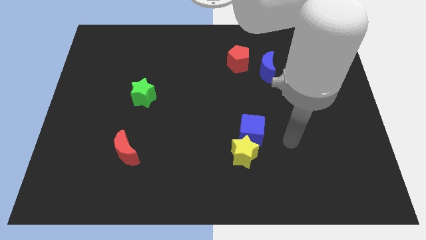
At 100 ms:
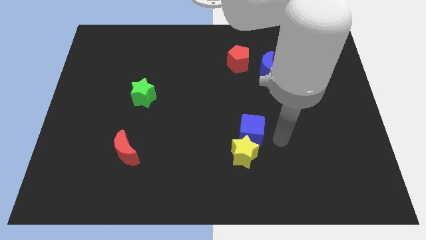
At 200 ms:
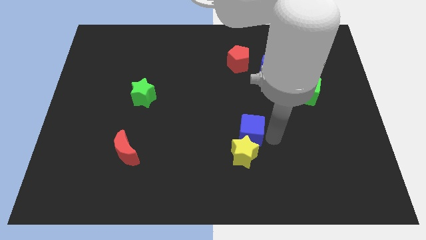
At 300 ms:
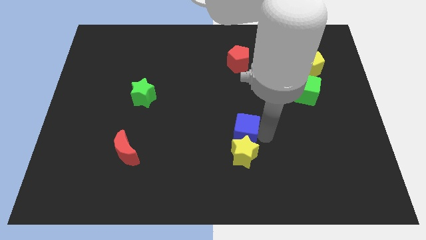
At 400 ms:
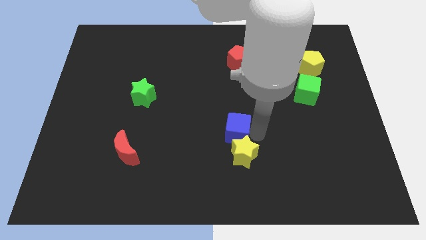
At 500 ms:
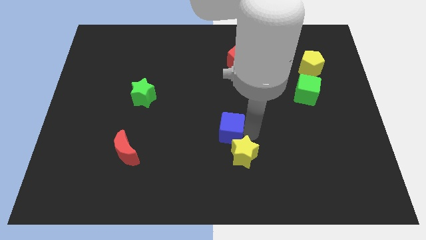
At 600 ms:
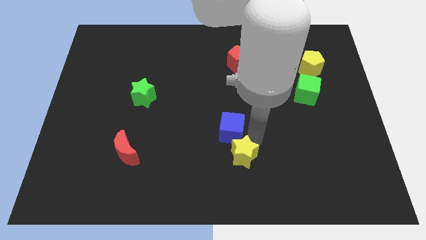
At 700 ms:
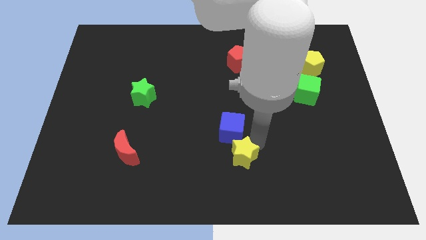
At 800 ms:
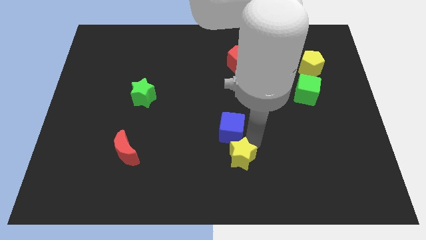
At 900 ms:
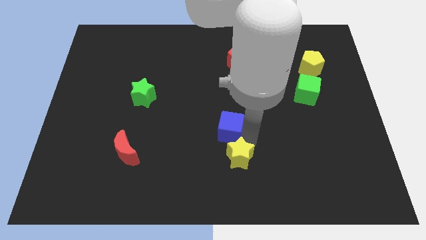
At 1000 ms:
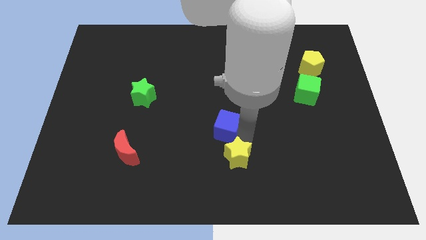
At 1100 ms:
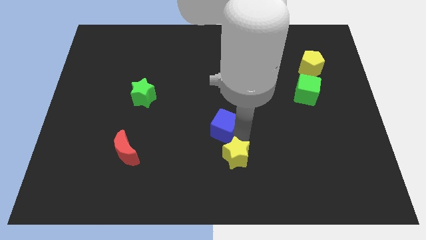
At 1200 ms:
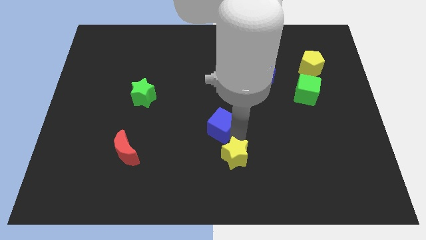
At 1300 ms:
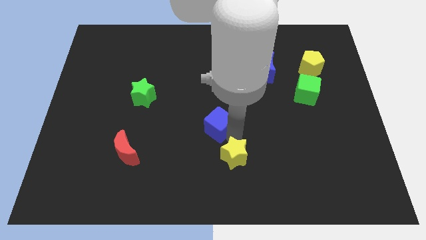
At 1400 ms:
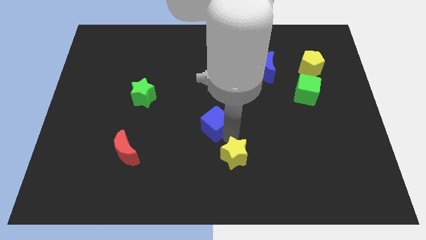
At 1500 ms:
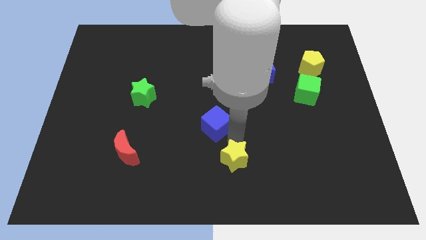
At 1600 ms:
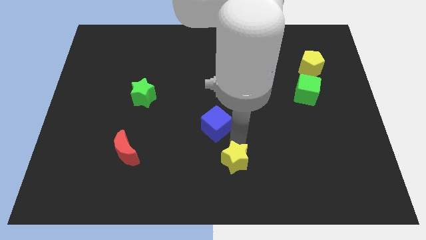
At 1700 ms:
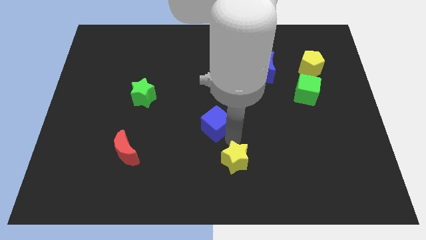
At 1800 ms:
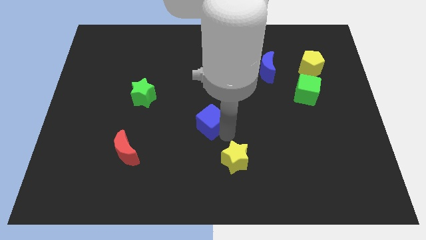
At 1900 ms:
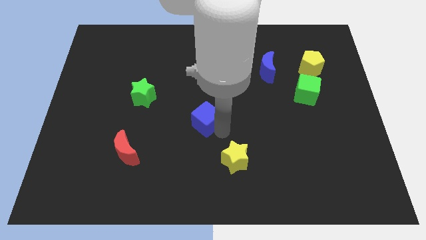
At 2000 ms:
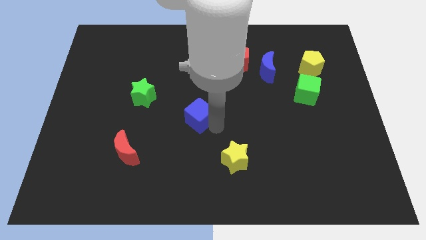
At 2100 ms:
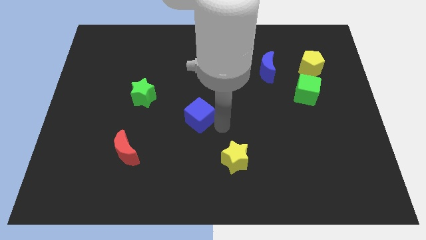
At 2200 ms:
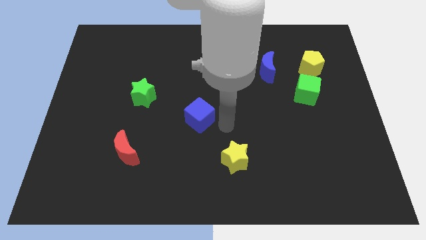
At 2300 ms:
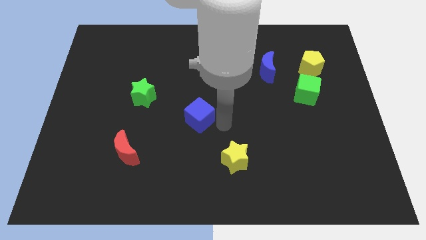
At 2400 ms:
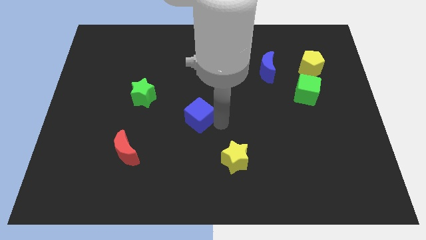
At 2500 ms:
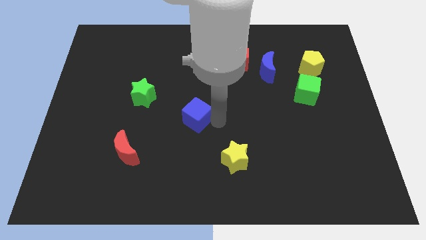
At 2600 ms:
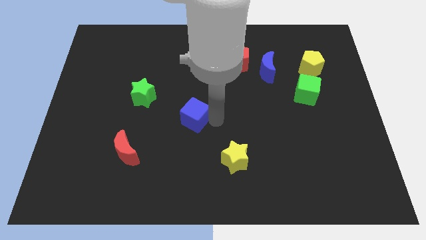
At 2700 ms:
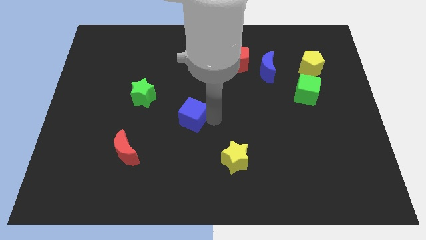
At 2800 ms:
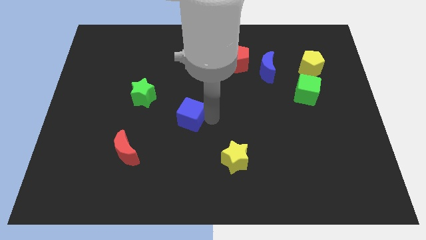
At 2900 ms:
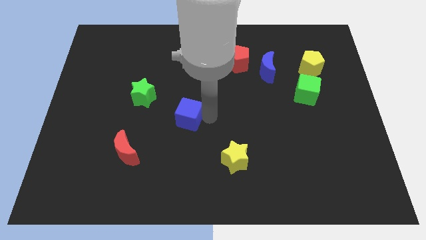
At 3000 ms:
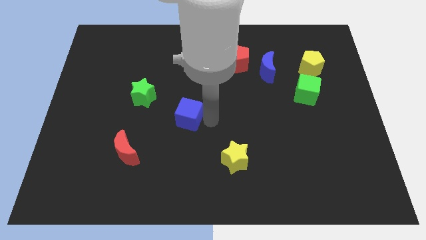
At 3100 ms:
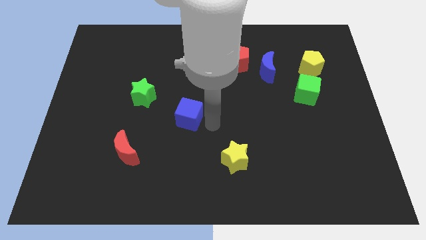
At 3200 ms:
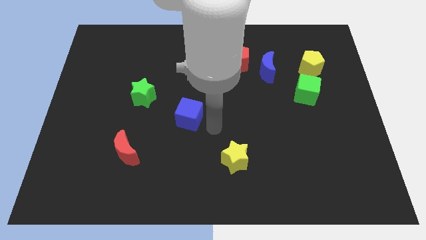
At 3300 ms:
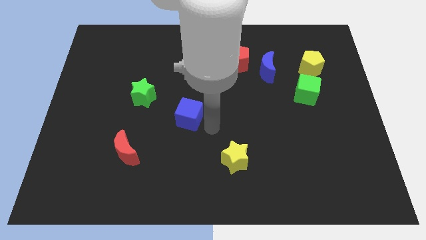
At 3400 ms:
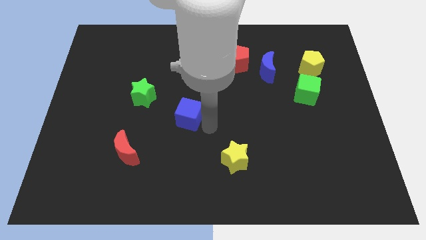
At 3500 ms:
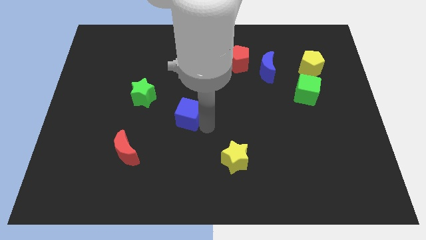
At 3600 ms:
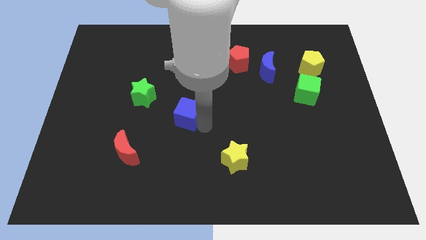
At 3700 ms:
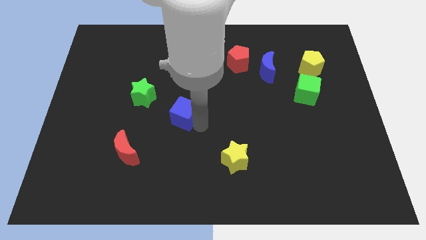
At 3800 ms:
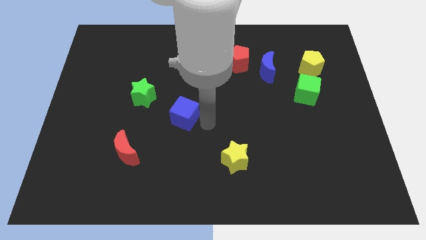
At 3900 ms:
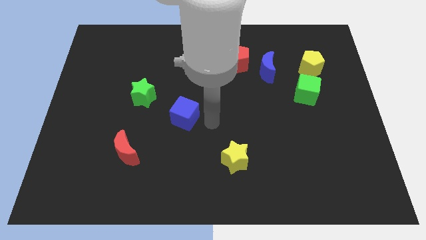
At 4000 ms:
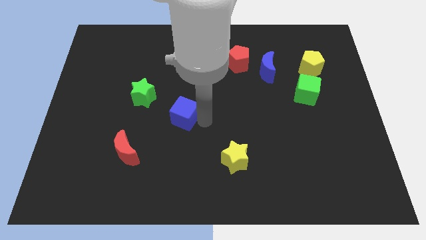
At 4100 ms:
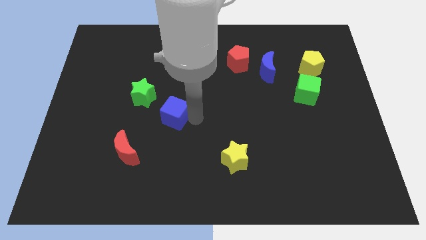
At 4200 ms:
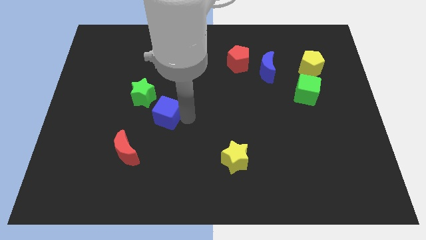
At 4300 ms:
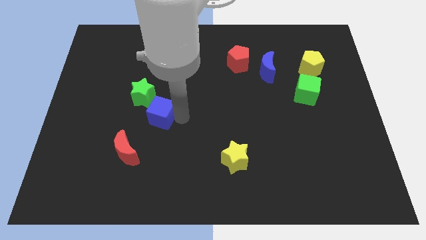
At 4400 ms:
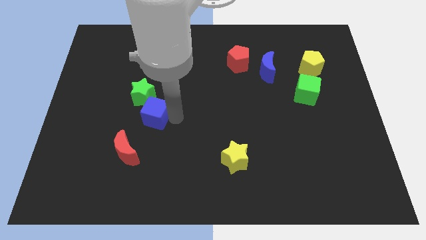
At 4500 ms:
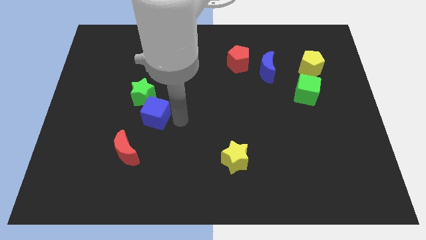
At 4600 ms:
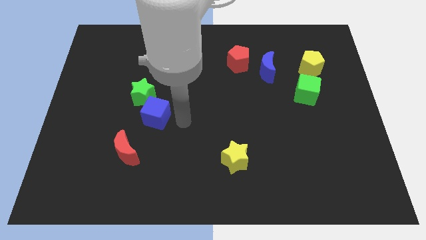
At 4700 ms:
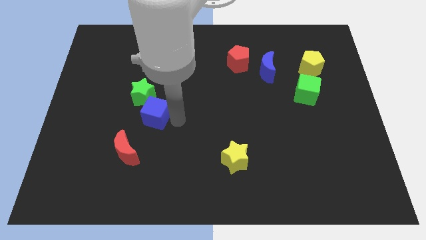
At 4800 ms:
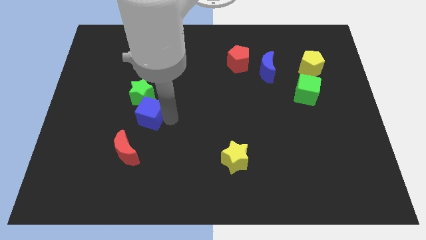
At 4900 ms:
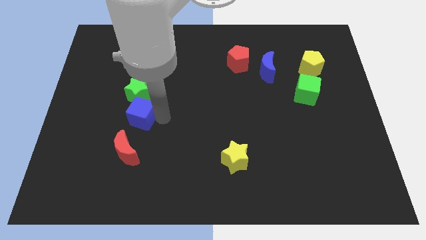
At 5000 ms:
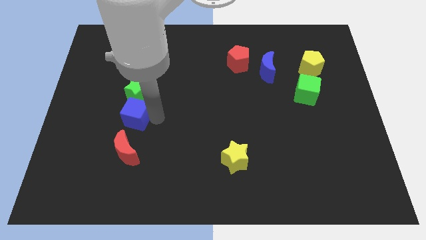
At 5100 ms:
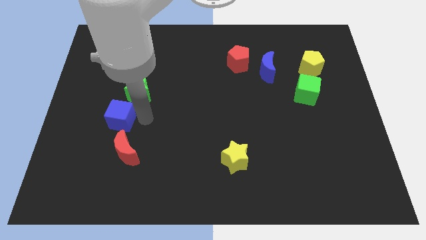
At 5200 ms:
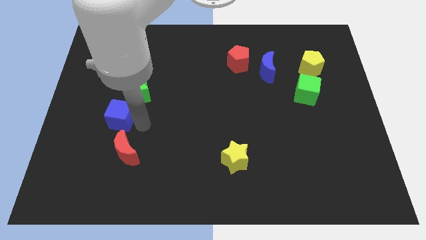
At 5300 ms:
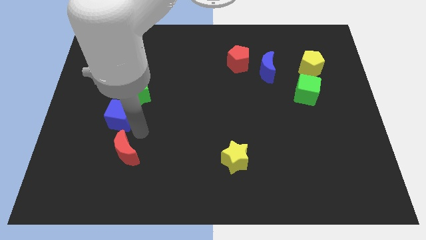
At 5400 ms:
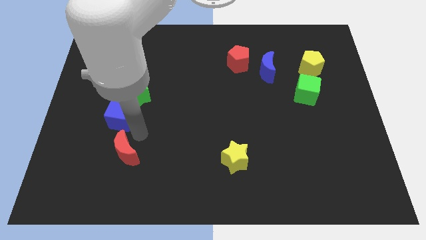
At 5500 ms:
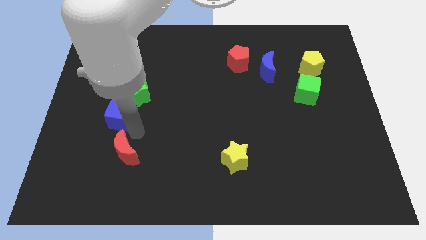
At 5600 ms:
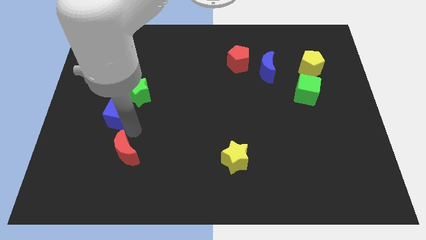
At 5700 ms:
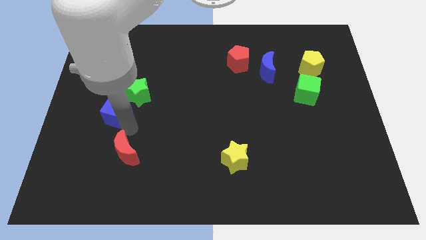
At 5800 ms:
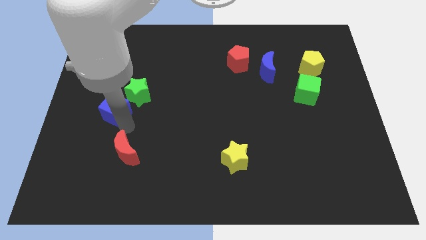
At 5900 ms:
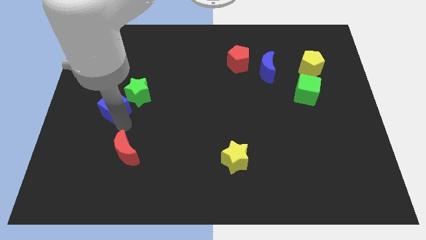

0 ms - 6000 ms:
slide the blue cube to the left side of the green star

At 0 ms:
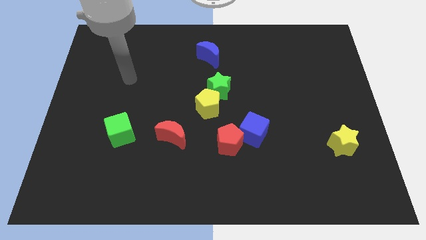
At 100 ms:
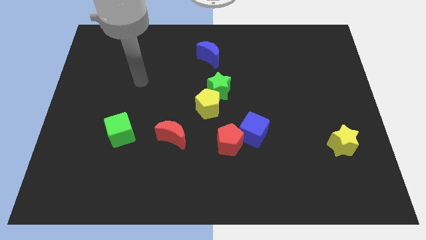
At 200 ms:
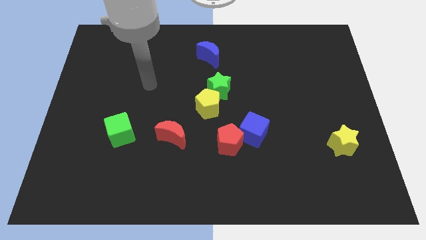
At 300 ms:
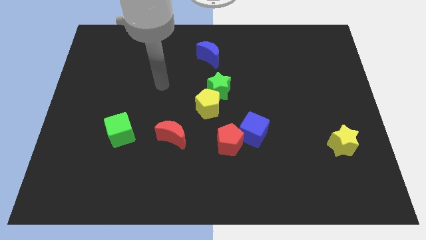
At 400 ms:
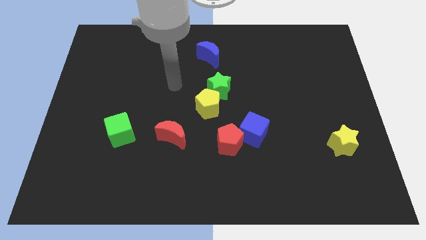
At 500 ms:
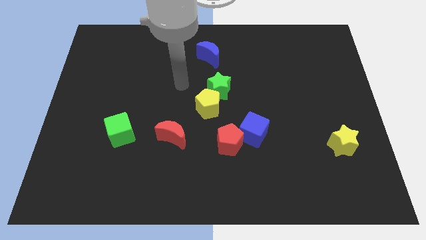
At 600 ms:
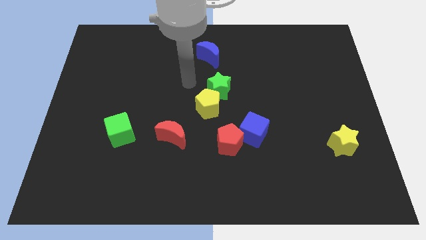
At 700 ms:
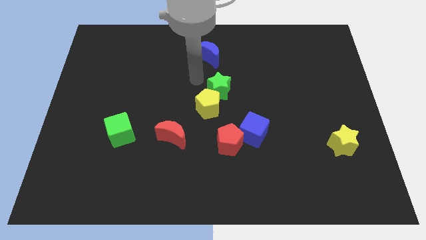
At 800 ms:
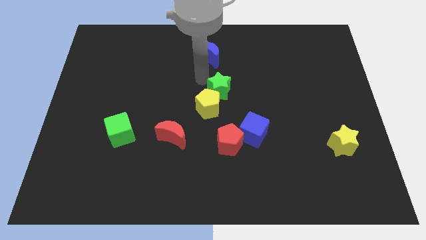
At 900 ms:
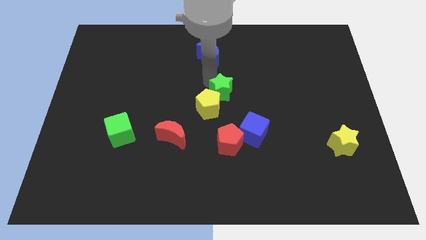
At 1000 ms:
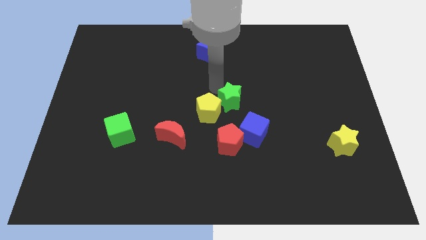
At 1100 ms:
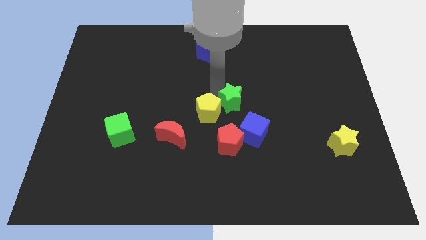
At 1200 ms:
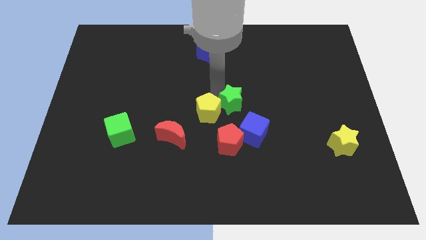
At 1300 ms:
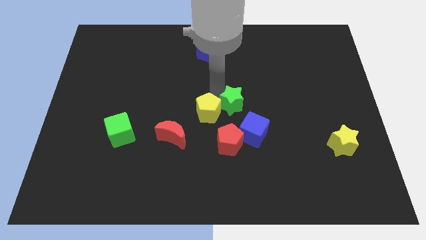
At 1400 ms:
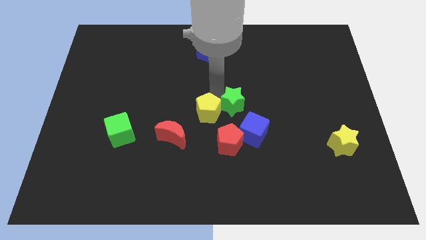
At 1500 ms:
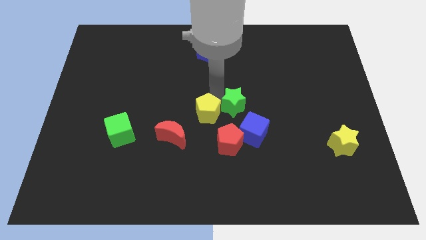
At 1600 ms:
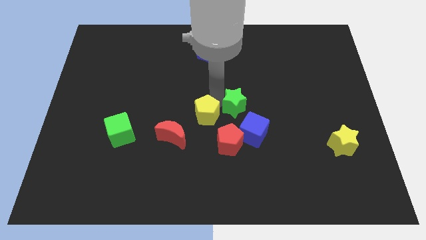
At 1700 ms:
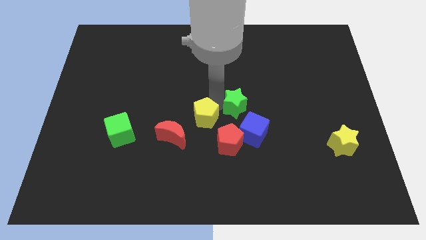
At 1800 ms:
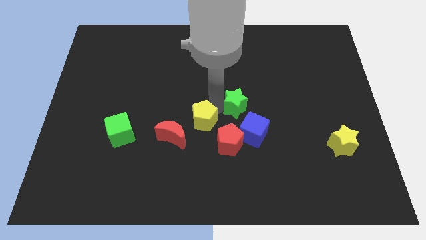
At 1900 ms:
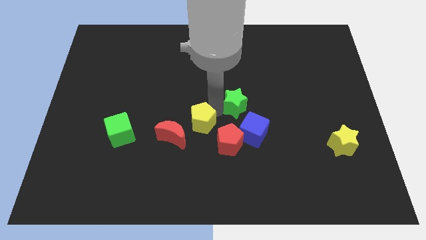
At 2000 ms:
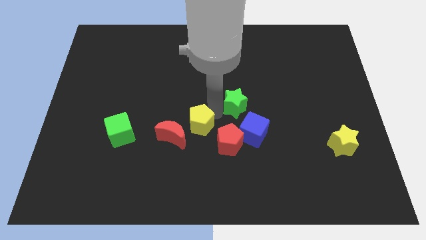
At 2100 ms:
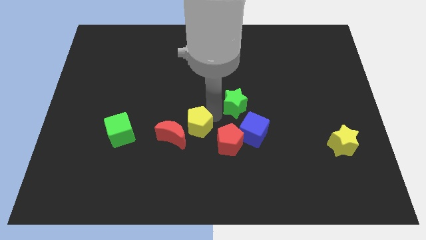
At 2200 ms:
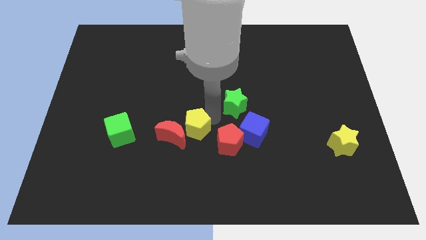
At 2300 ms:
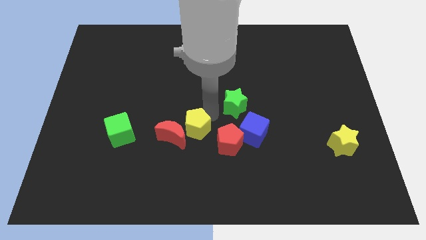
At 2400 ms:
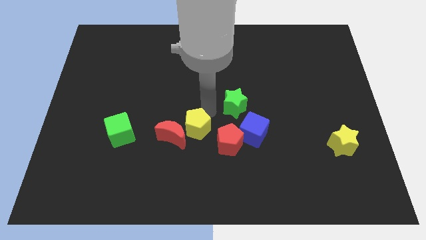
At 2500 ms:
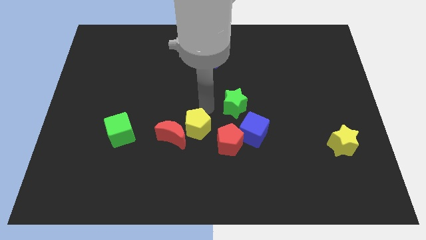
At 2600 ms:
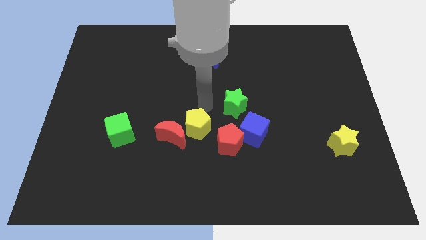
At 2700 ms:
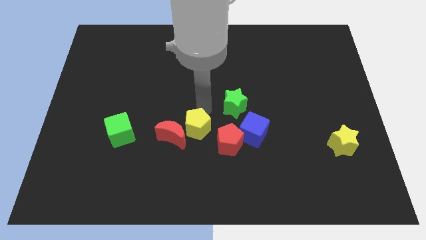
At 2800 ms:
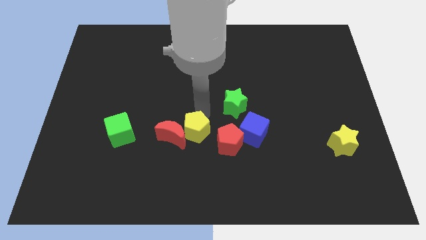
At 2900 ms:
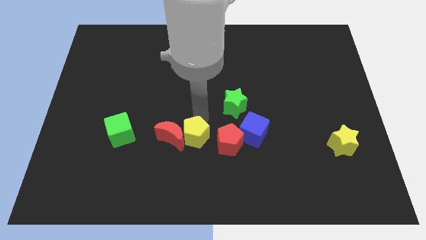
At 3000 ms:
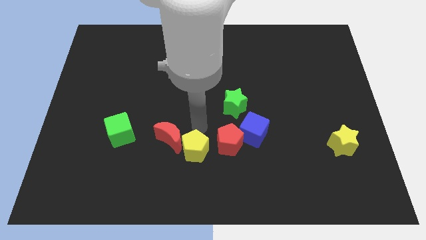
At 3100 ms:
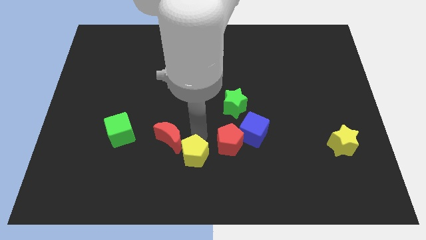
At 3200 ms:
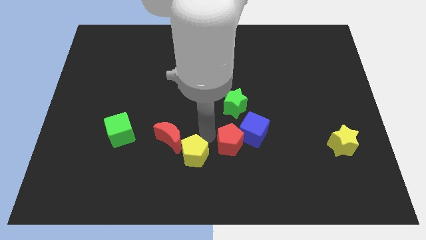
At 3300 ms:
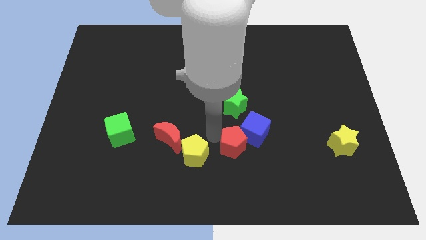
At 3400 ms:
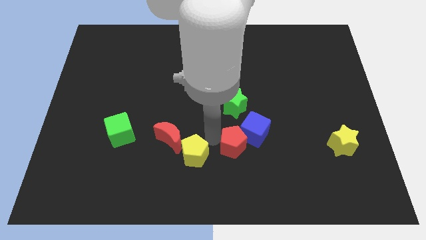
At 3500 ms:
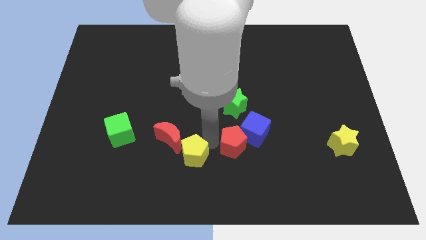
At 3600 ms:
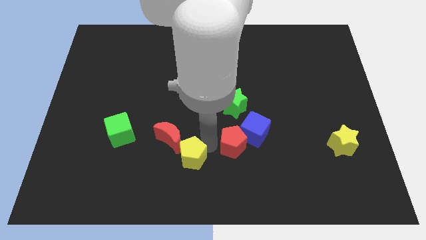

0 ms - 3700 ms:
move the yellow pentagon to the bottom side of the red moon
